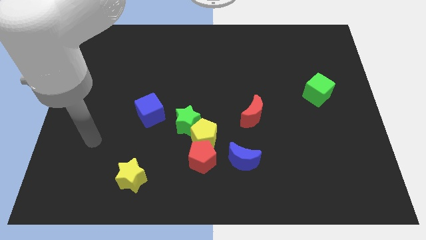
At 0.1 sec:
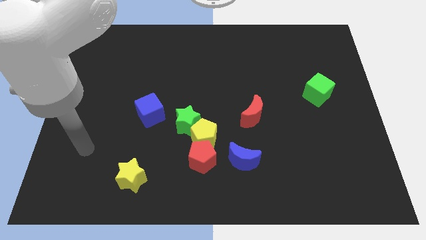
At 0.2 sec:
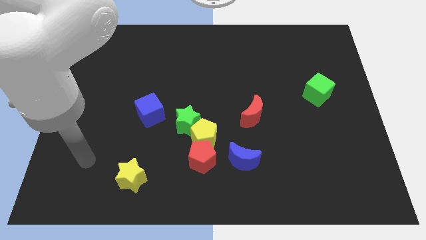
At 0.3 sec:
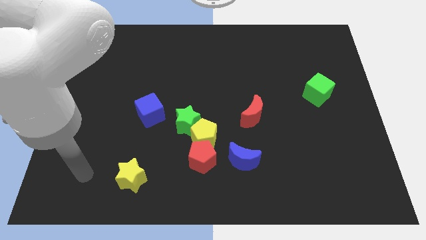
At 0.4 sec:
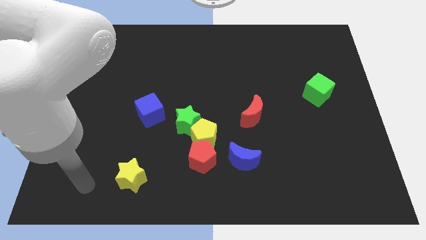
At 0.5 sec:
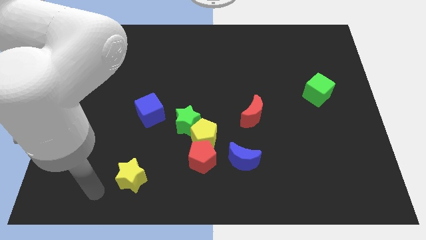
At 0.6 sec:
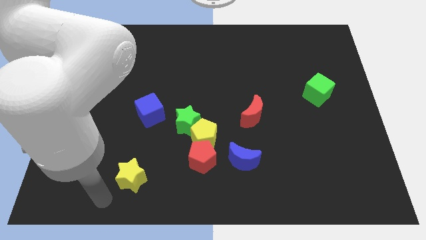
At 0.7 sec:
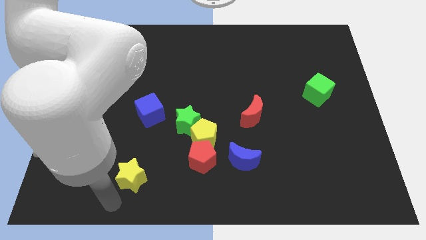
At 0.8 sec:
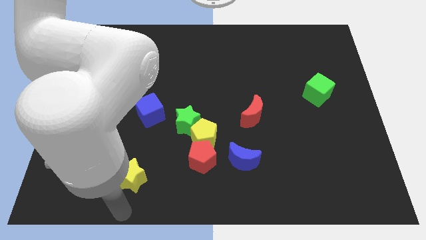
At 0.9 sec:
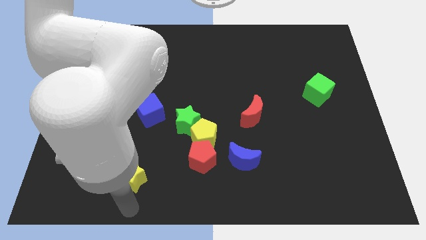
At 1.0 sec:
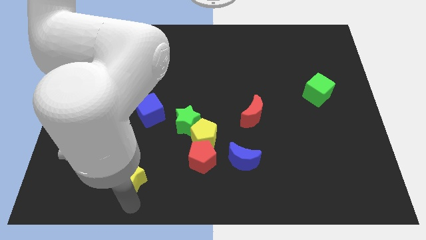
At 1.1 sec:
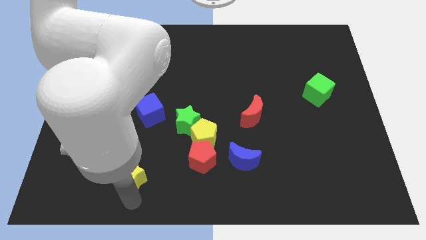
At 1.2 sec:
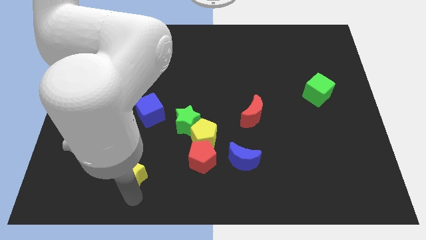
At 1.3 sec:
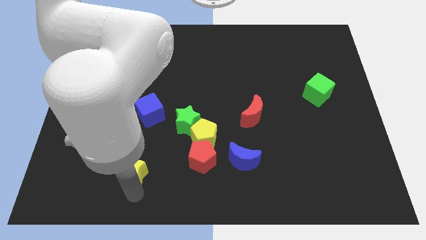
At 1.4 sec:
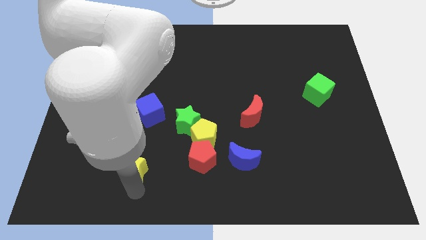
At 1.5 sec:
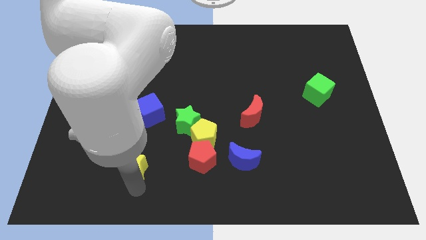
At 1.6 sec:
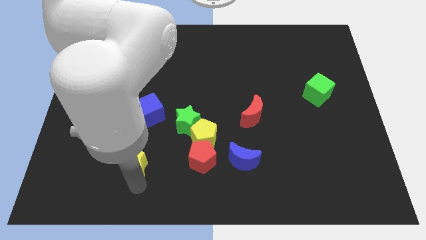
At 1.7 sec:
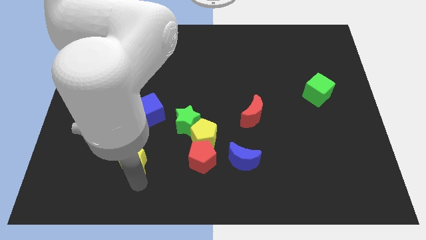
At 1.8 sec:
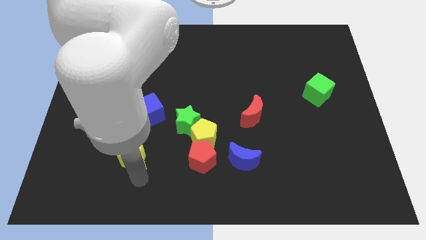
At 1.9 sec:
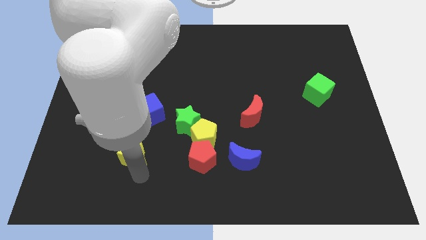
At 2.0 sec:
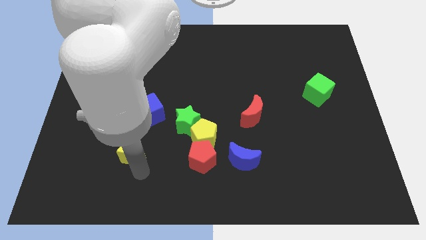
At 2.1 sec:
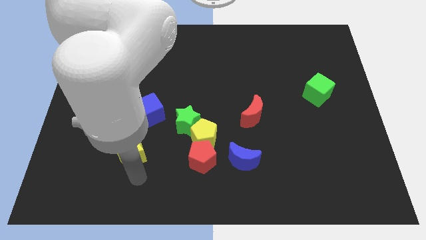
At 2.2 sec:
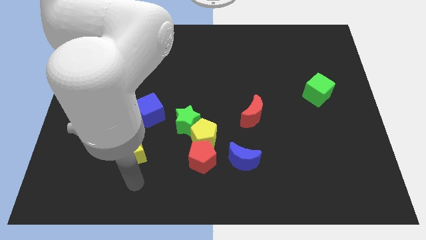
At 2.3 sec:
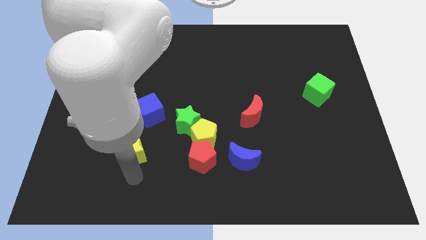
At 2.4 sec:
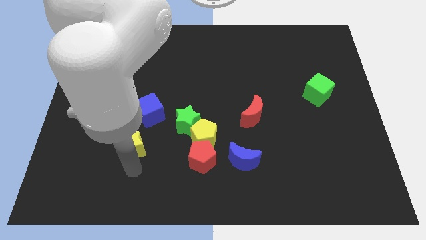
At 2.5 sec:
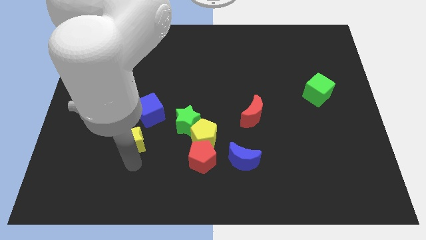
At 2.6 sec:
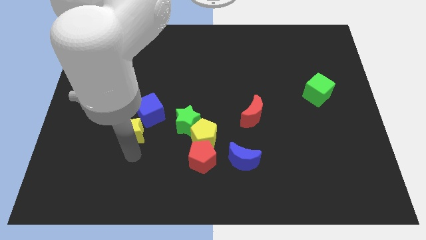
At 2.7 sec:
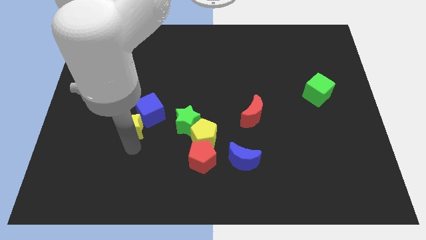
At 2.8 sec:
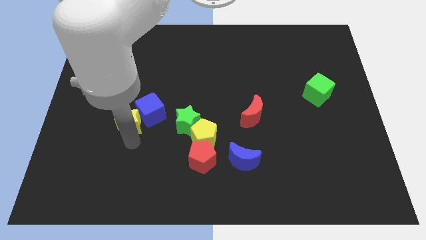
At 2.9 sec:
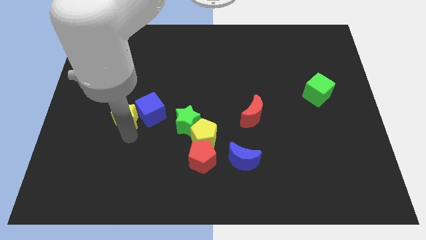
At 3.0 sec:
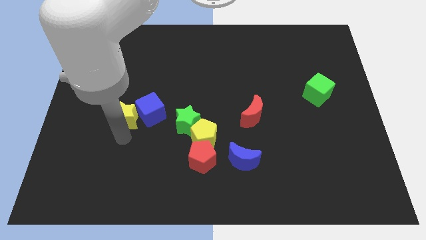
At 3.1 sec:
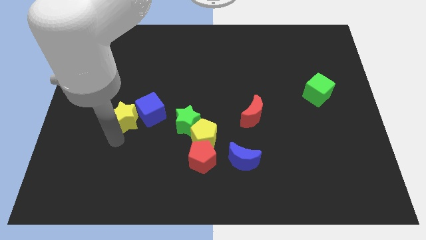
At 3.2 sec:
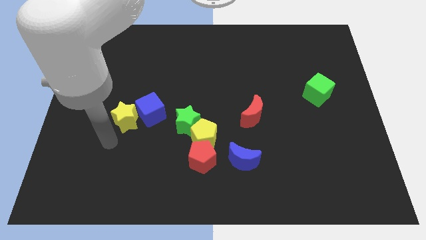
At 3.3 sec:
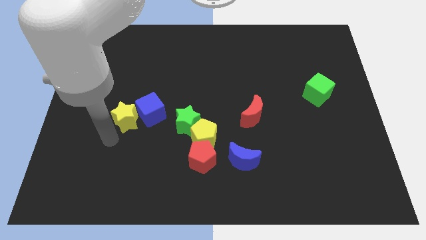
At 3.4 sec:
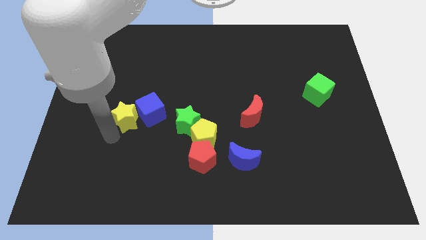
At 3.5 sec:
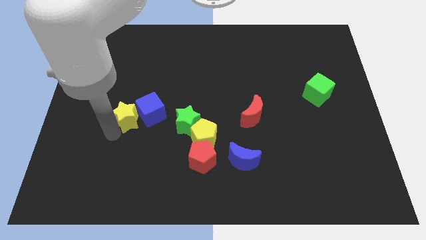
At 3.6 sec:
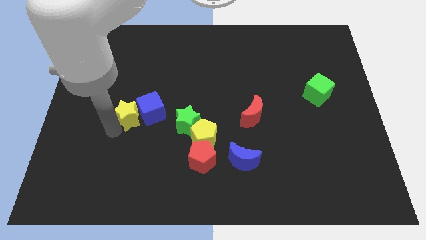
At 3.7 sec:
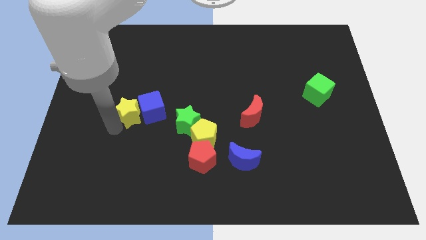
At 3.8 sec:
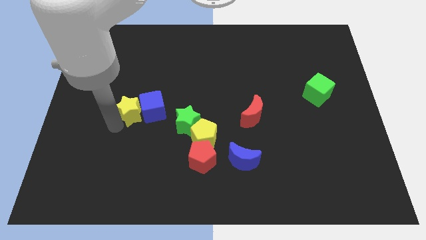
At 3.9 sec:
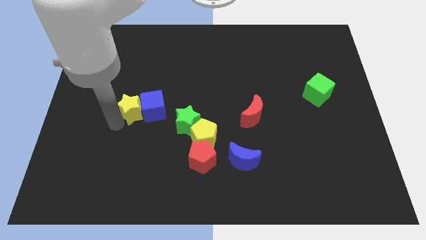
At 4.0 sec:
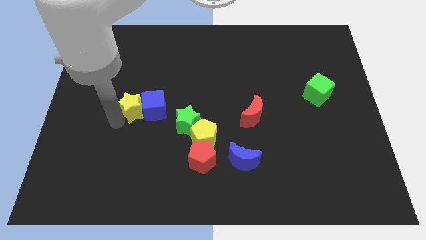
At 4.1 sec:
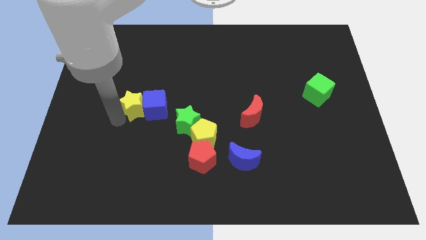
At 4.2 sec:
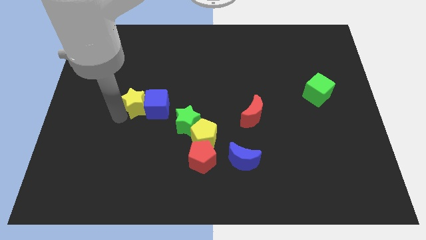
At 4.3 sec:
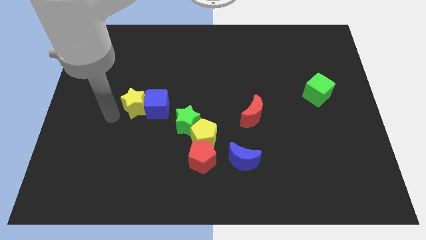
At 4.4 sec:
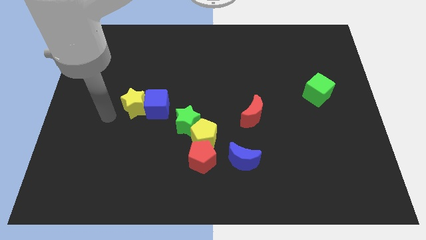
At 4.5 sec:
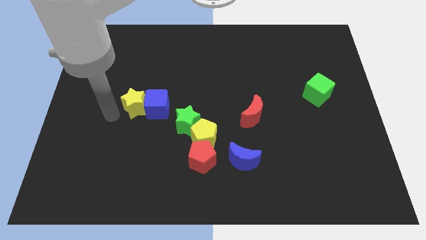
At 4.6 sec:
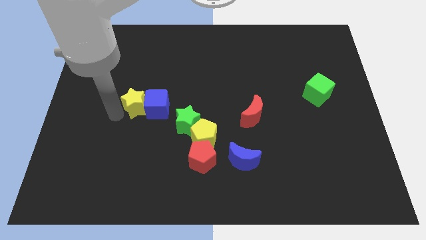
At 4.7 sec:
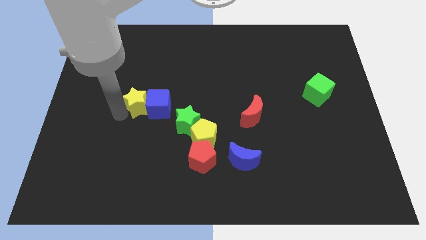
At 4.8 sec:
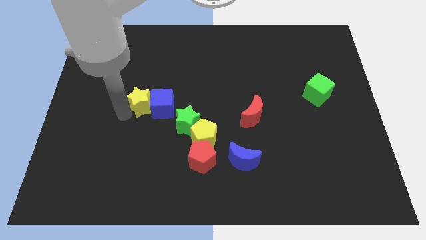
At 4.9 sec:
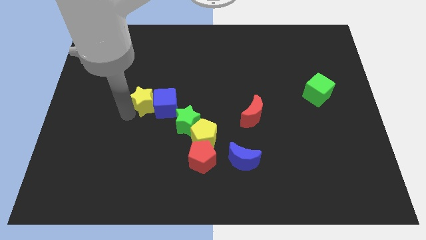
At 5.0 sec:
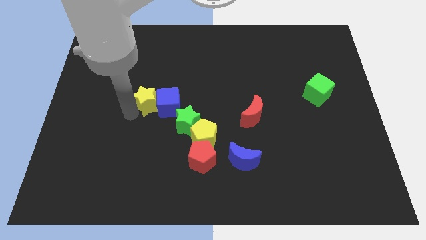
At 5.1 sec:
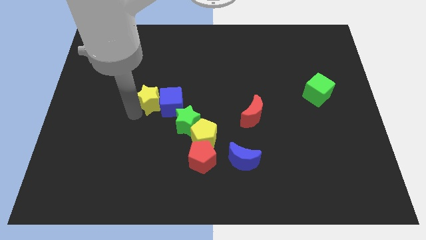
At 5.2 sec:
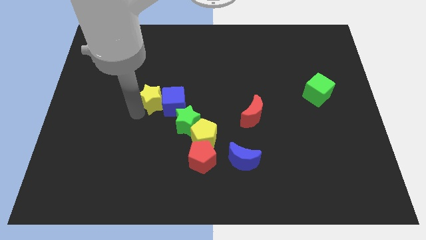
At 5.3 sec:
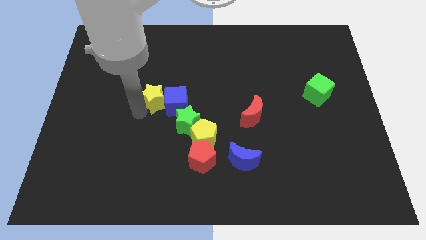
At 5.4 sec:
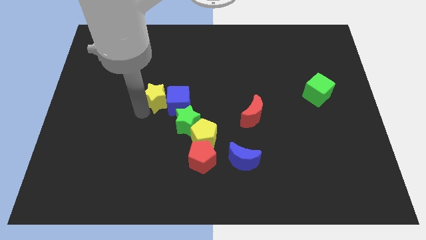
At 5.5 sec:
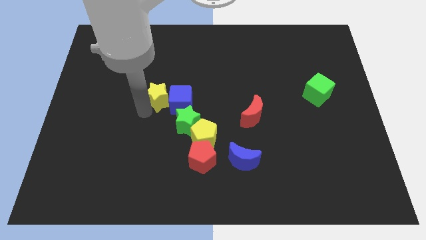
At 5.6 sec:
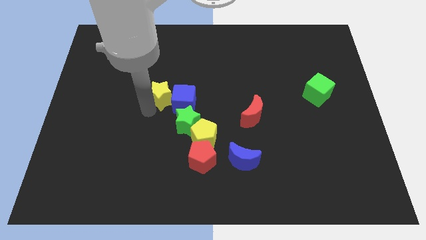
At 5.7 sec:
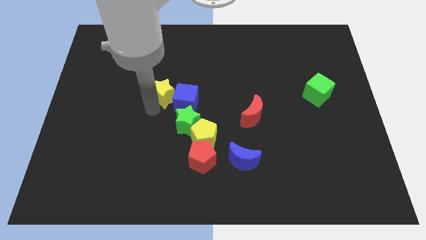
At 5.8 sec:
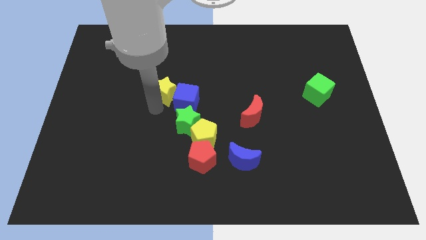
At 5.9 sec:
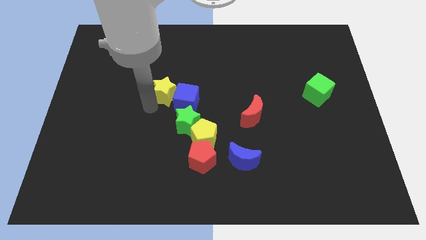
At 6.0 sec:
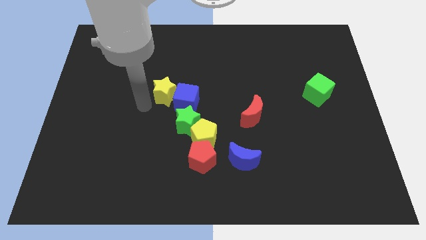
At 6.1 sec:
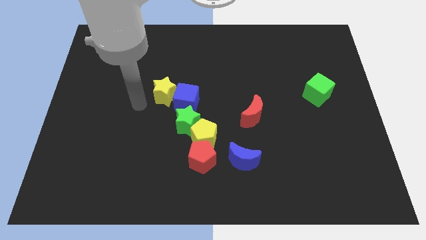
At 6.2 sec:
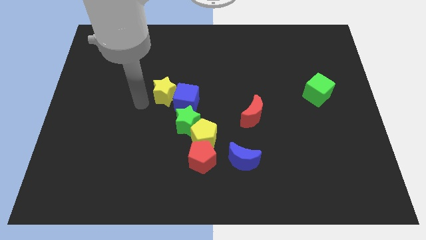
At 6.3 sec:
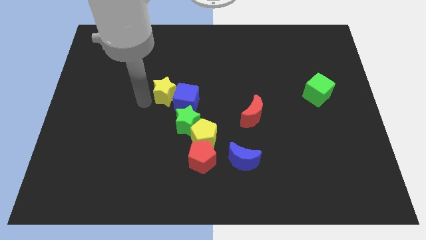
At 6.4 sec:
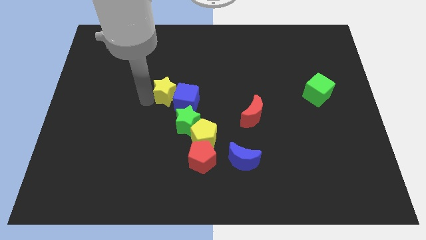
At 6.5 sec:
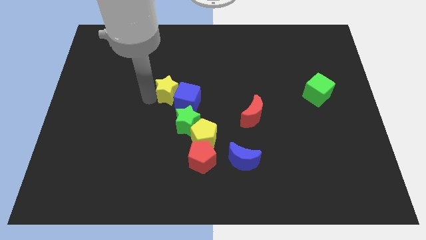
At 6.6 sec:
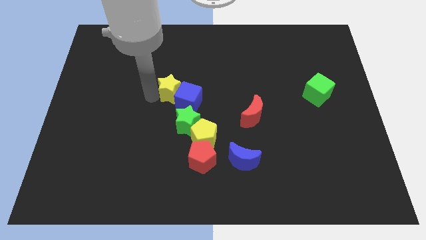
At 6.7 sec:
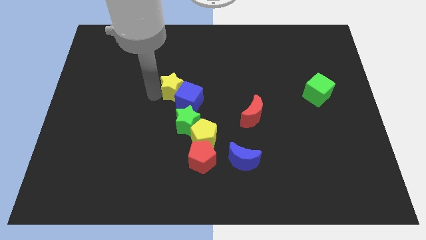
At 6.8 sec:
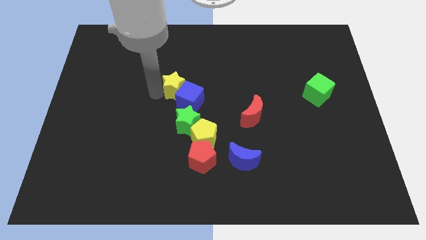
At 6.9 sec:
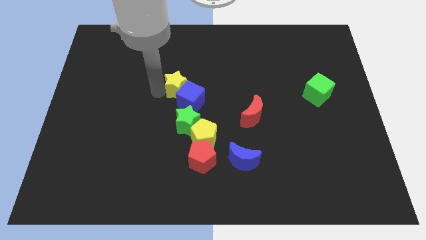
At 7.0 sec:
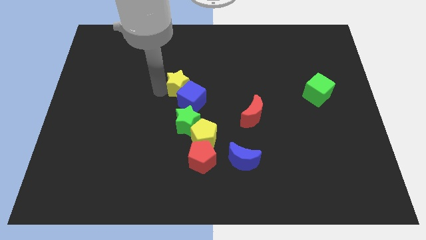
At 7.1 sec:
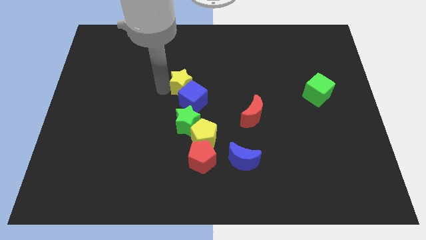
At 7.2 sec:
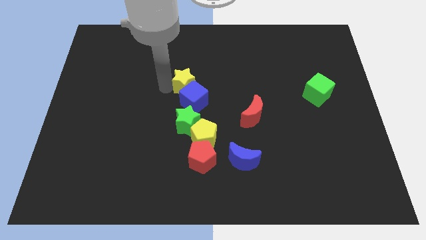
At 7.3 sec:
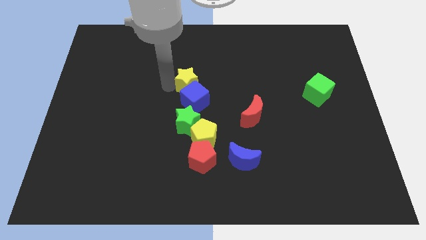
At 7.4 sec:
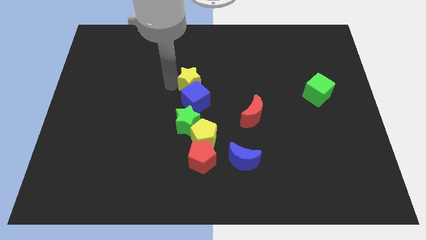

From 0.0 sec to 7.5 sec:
slide the yellow star upwards and to the right

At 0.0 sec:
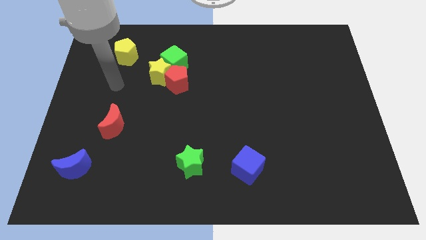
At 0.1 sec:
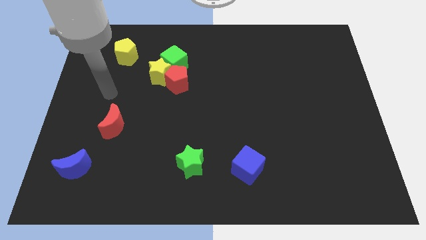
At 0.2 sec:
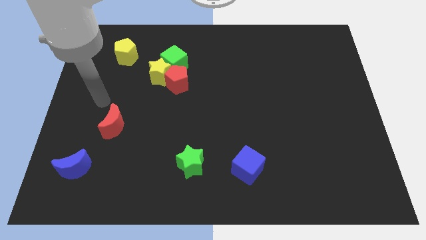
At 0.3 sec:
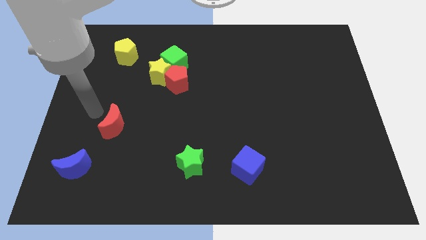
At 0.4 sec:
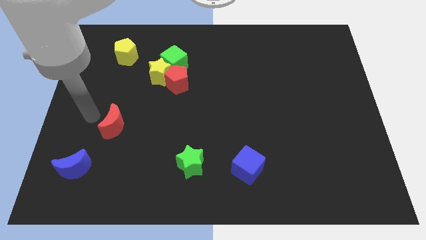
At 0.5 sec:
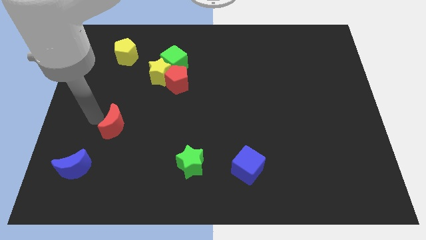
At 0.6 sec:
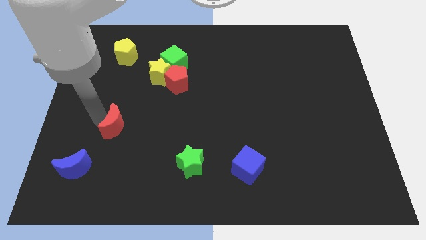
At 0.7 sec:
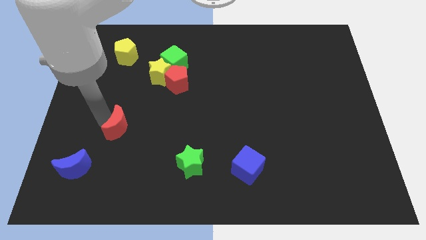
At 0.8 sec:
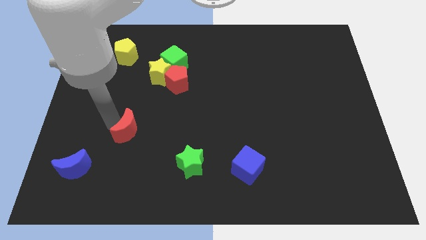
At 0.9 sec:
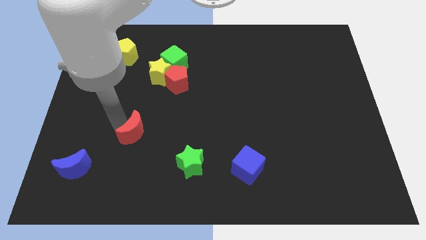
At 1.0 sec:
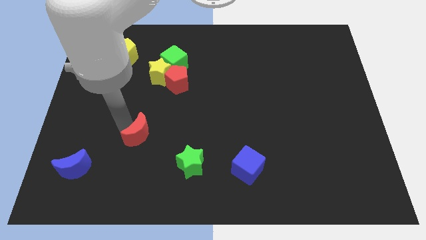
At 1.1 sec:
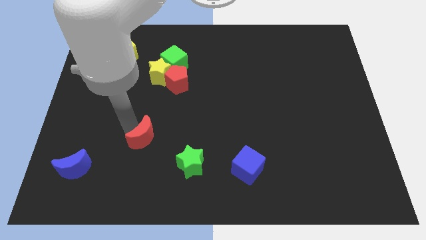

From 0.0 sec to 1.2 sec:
slide the red moon a little bit diagonally down and to the right
